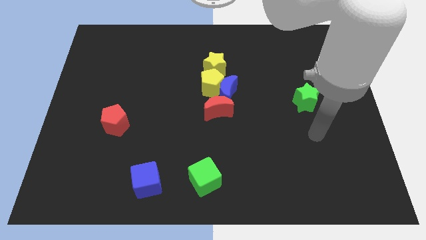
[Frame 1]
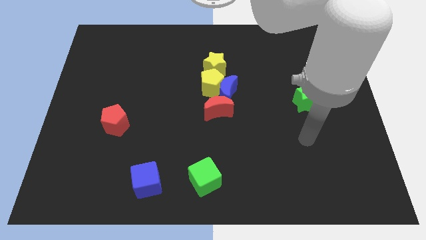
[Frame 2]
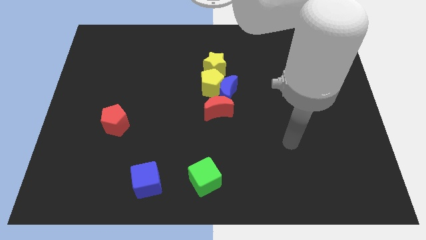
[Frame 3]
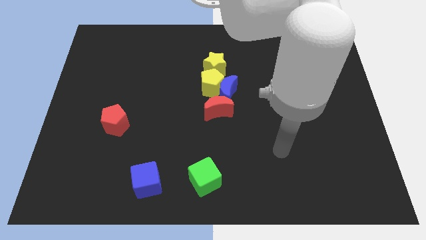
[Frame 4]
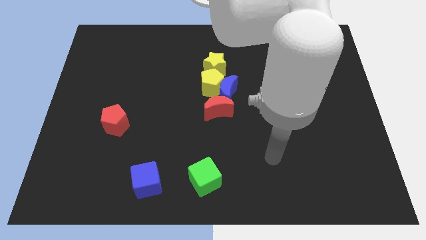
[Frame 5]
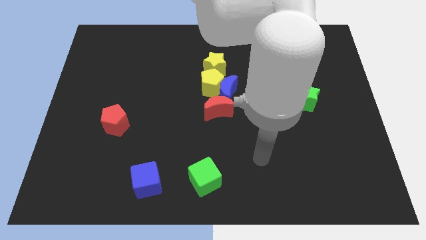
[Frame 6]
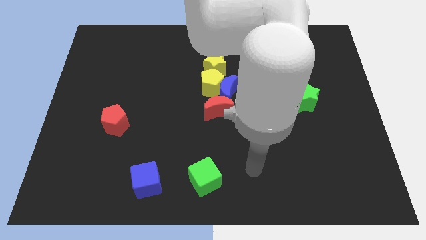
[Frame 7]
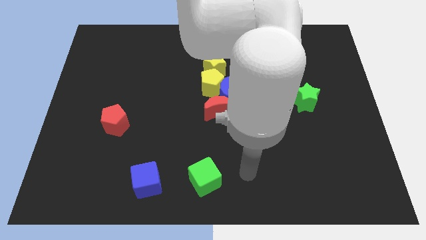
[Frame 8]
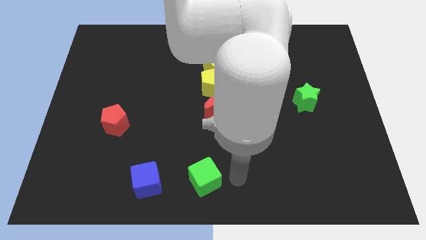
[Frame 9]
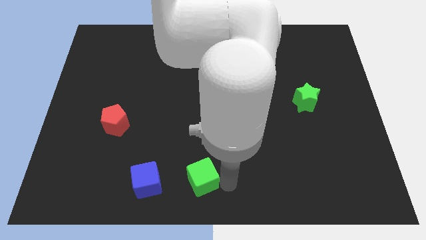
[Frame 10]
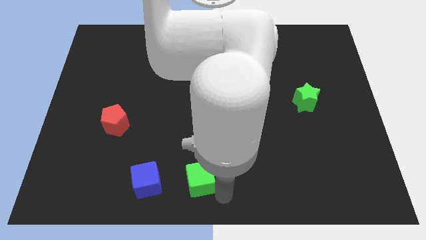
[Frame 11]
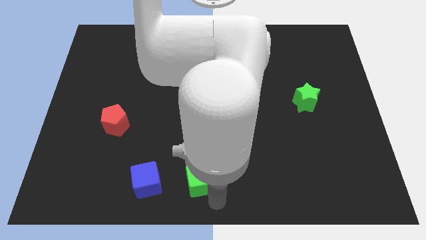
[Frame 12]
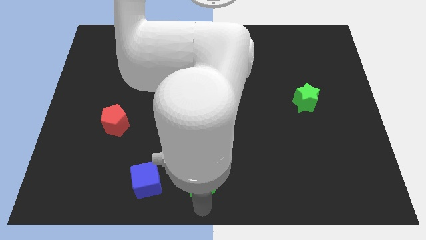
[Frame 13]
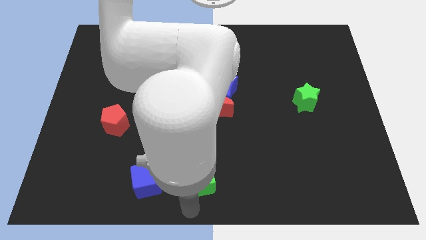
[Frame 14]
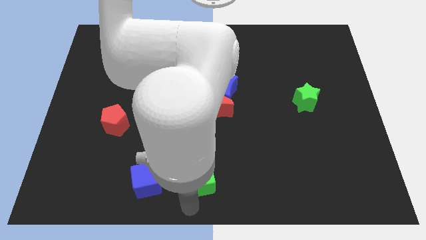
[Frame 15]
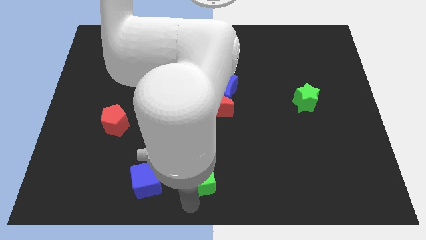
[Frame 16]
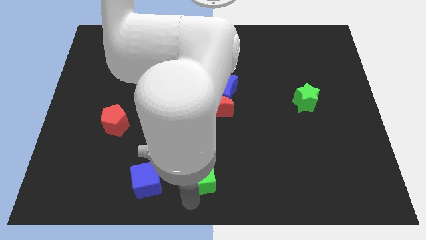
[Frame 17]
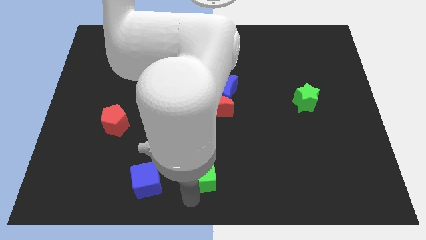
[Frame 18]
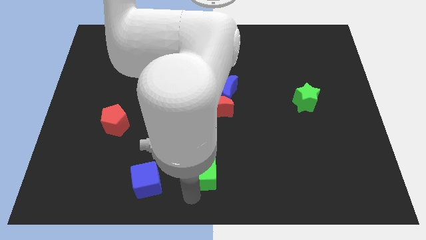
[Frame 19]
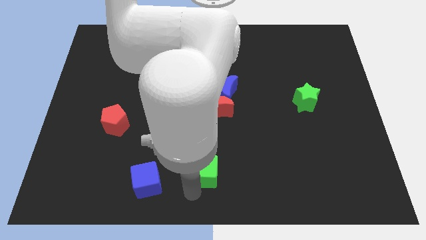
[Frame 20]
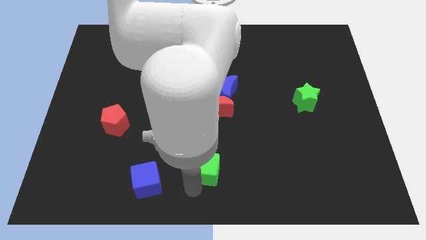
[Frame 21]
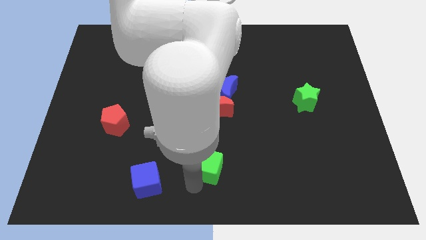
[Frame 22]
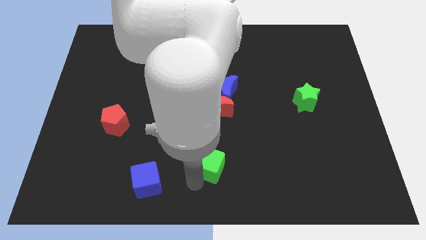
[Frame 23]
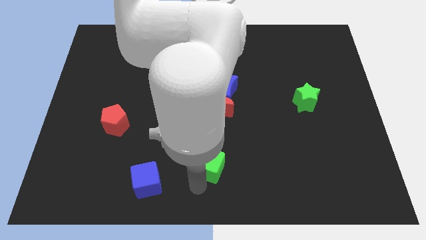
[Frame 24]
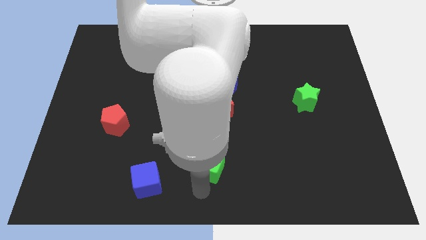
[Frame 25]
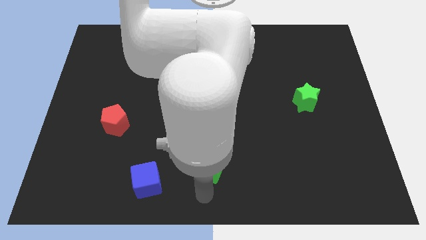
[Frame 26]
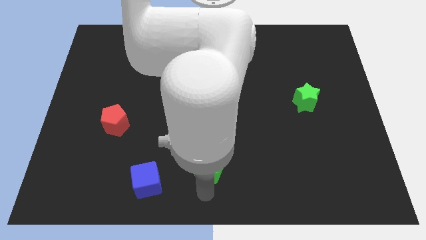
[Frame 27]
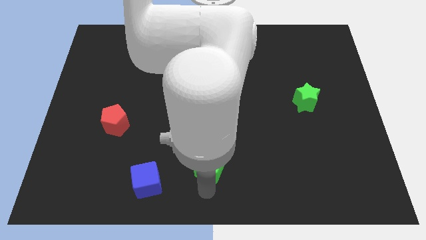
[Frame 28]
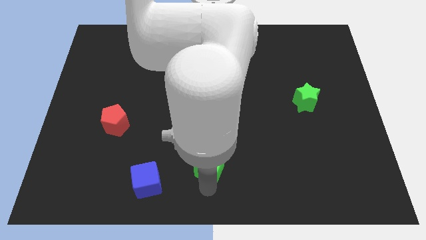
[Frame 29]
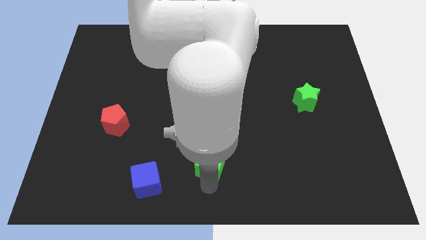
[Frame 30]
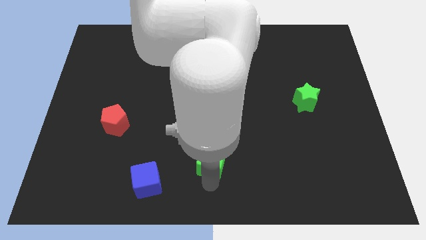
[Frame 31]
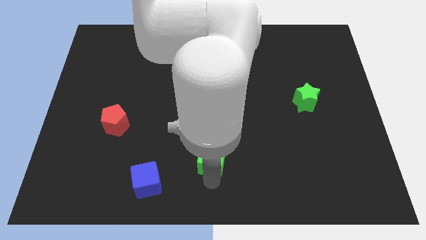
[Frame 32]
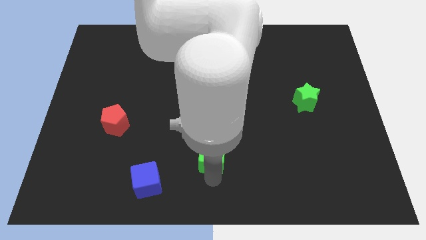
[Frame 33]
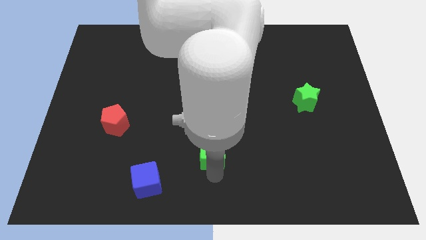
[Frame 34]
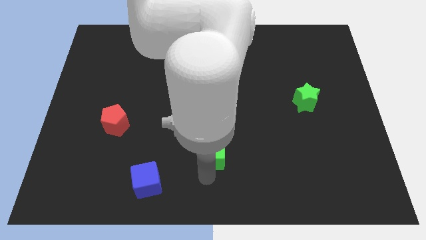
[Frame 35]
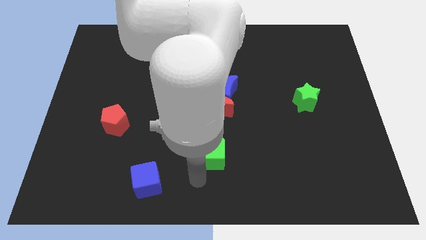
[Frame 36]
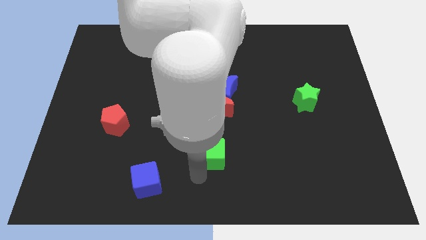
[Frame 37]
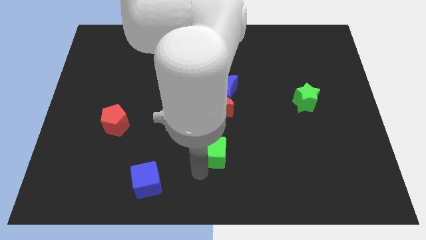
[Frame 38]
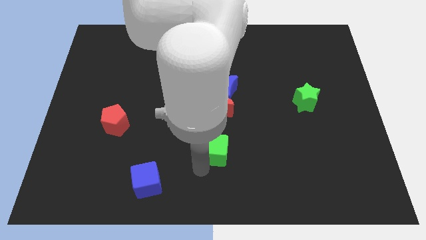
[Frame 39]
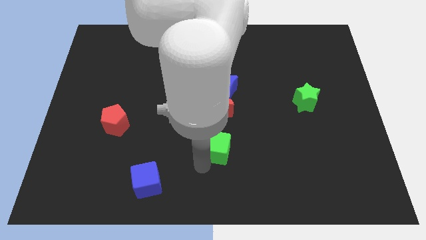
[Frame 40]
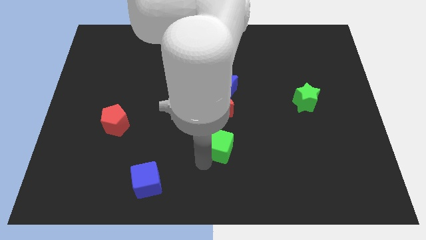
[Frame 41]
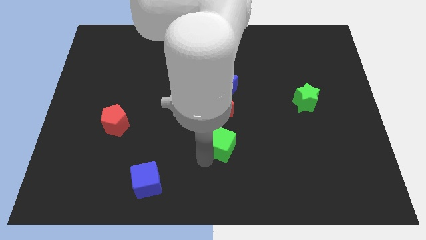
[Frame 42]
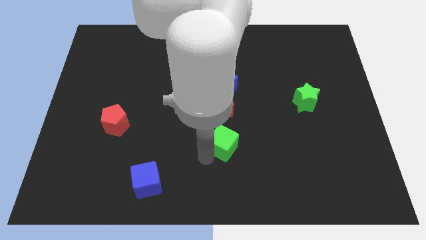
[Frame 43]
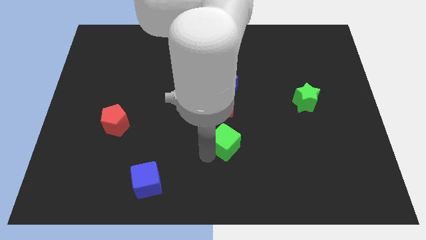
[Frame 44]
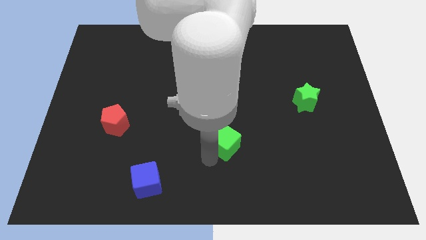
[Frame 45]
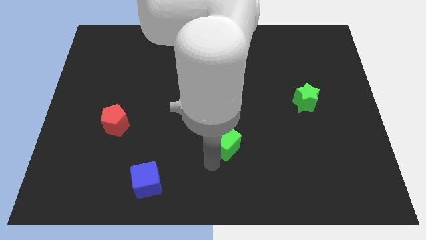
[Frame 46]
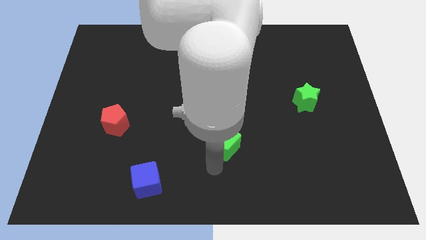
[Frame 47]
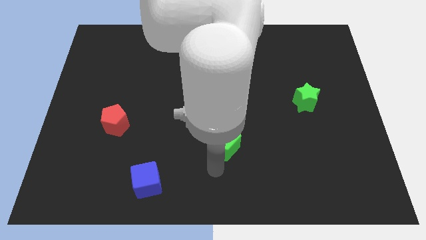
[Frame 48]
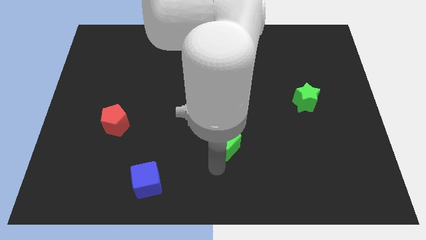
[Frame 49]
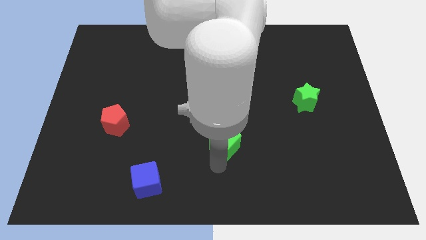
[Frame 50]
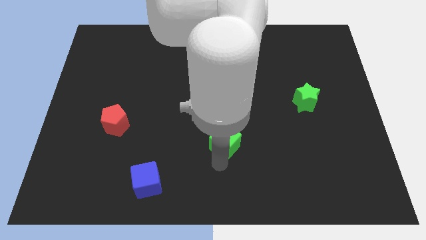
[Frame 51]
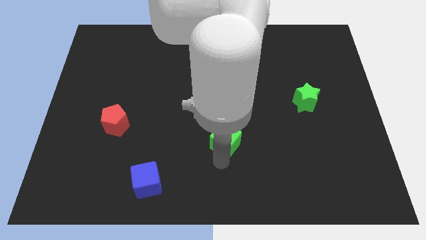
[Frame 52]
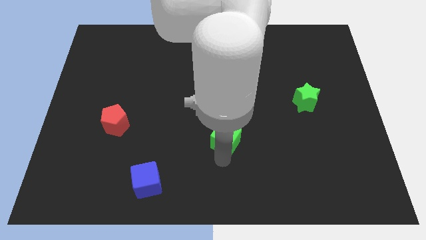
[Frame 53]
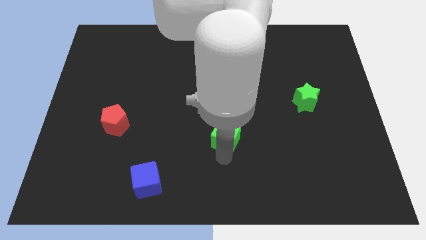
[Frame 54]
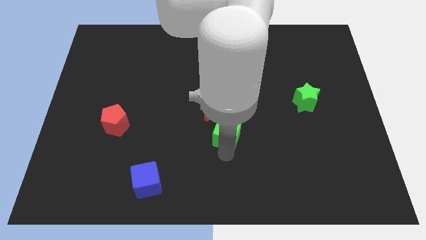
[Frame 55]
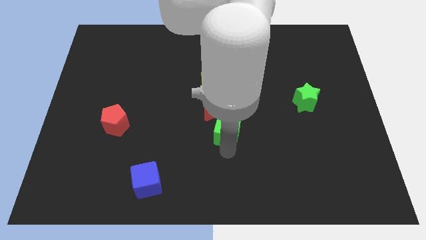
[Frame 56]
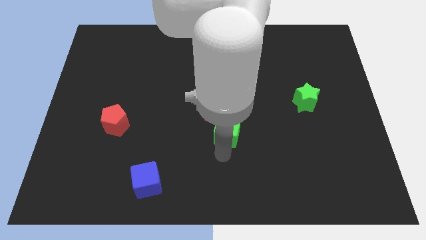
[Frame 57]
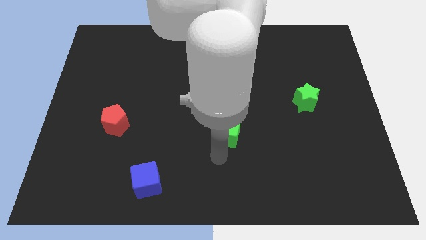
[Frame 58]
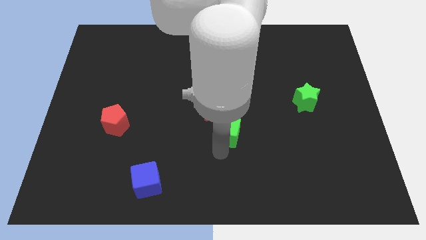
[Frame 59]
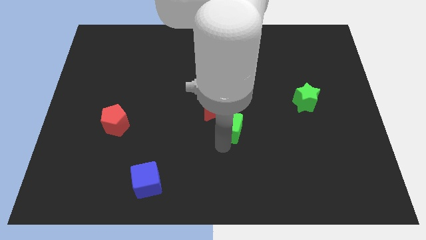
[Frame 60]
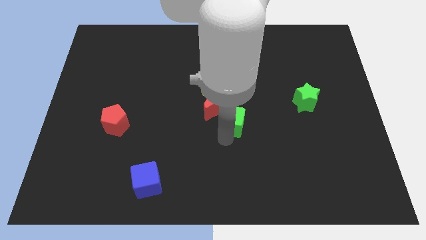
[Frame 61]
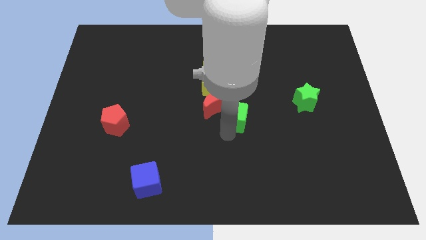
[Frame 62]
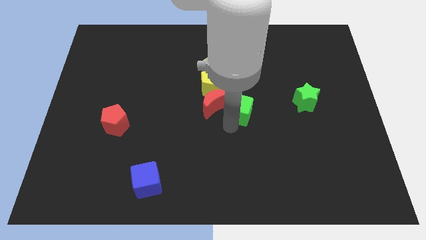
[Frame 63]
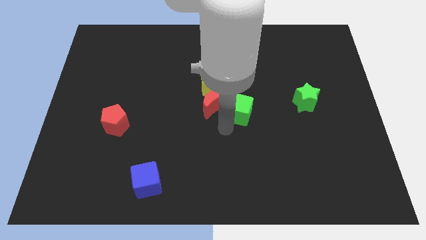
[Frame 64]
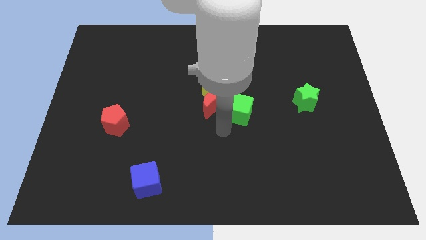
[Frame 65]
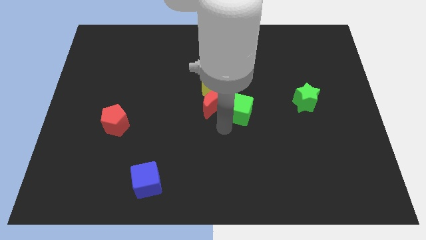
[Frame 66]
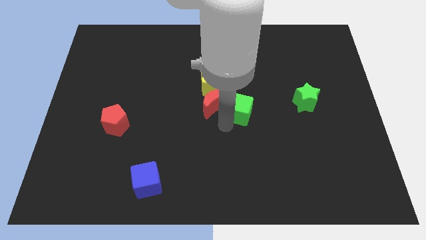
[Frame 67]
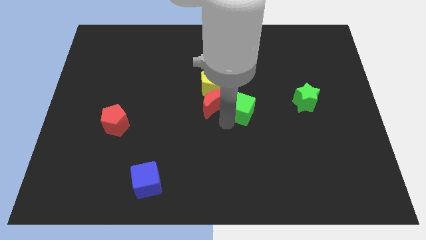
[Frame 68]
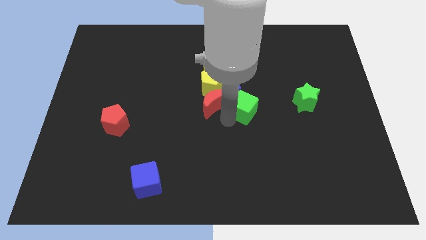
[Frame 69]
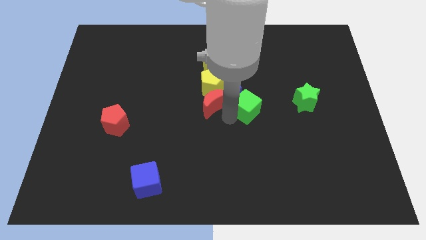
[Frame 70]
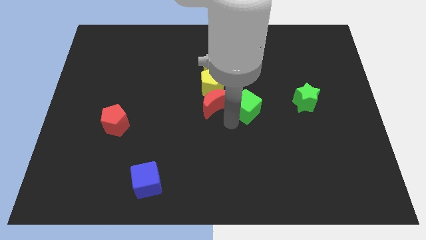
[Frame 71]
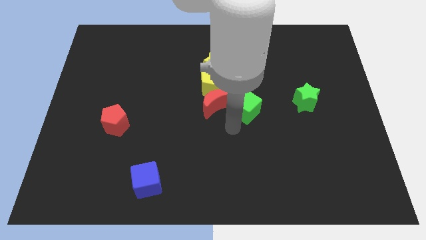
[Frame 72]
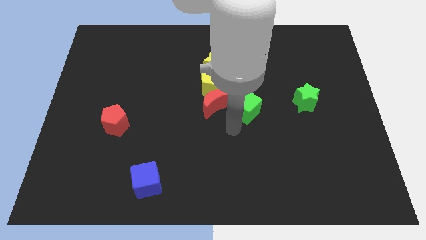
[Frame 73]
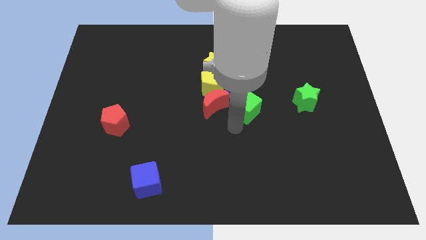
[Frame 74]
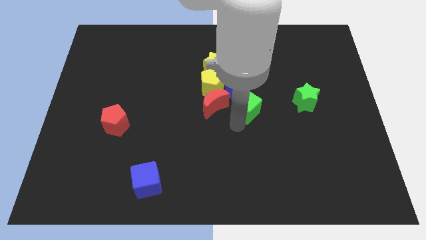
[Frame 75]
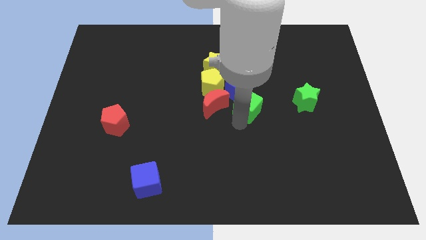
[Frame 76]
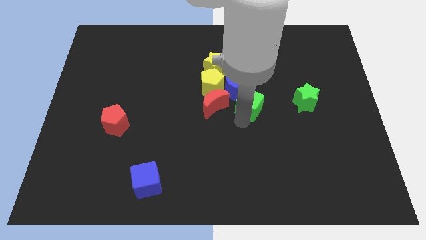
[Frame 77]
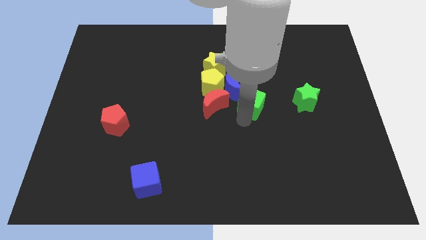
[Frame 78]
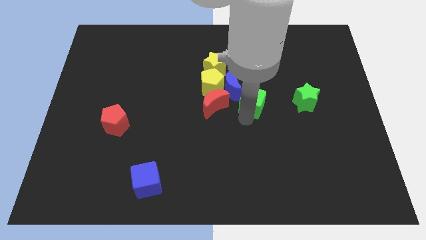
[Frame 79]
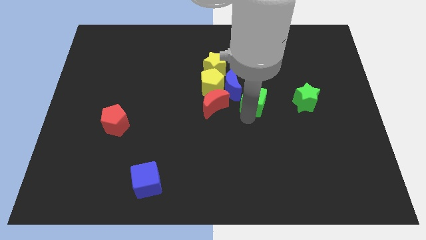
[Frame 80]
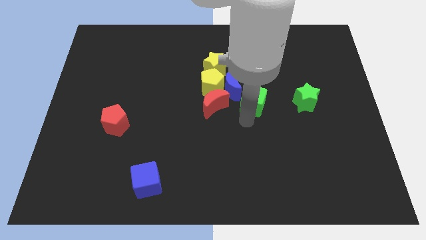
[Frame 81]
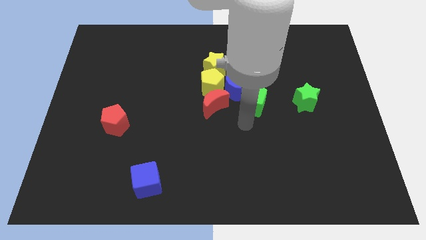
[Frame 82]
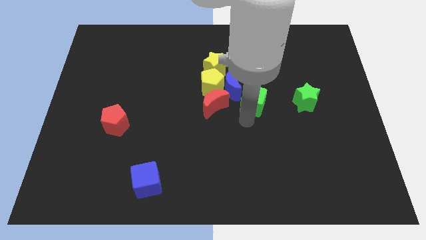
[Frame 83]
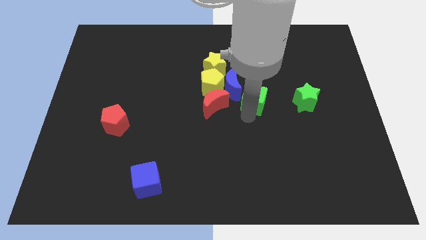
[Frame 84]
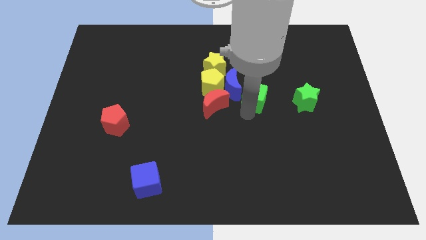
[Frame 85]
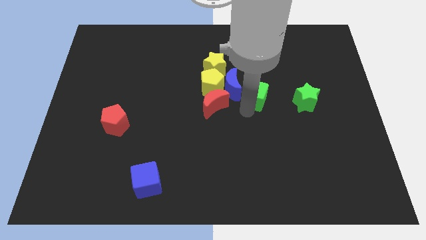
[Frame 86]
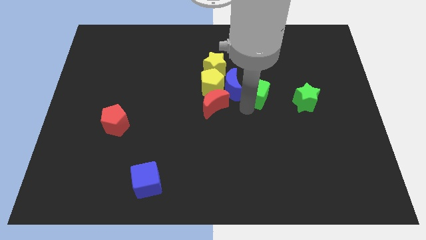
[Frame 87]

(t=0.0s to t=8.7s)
push the green cube to the bottom right side of the yellow star
